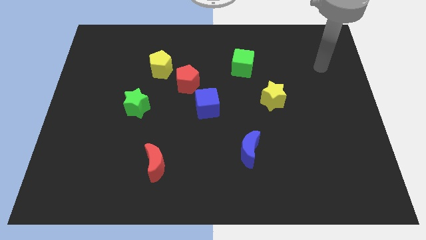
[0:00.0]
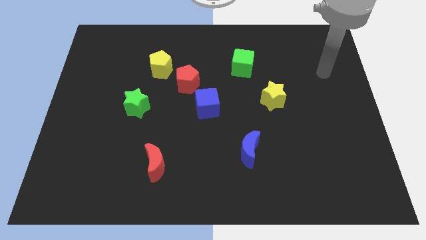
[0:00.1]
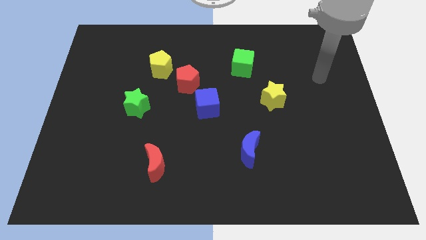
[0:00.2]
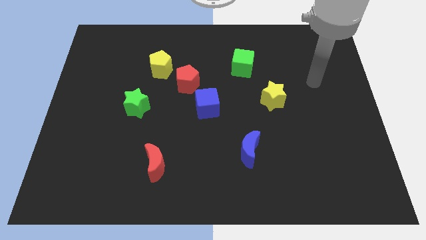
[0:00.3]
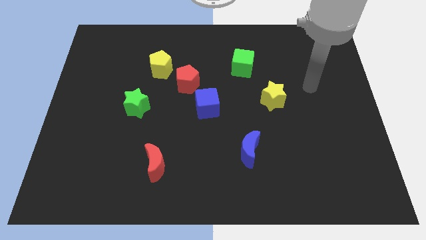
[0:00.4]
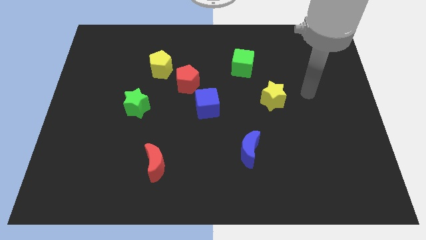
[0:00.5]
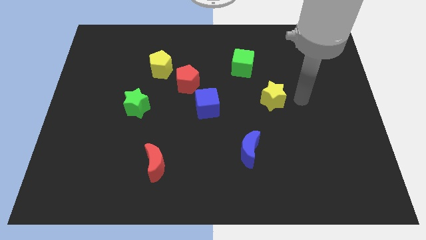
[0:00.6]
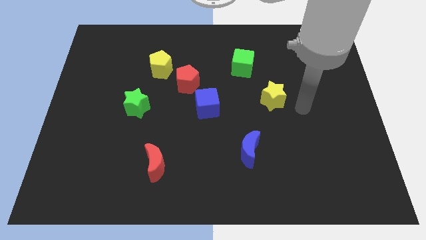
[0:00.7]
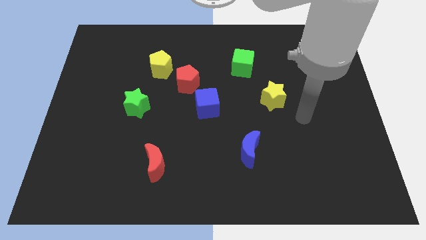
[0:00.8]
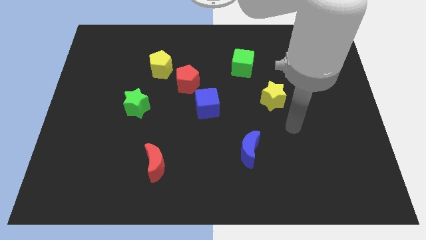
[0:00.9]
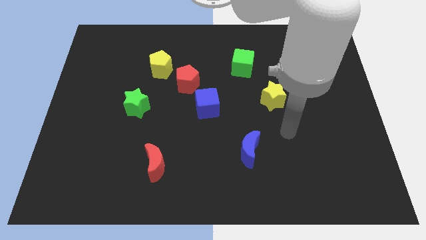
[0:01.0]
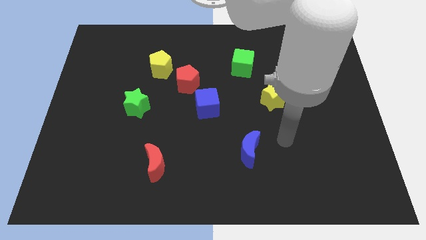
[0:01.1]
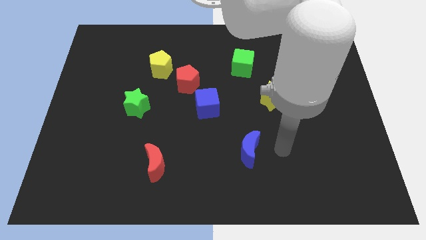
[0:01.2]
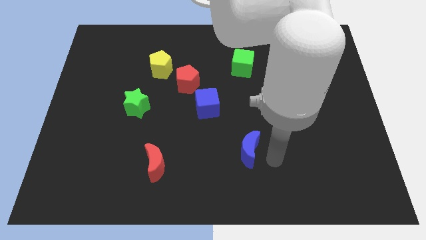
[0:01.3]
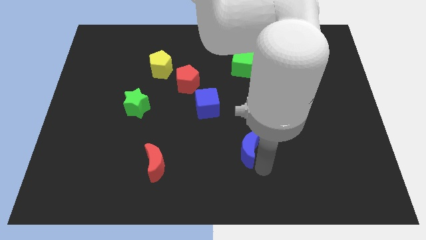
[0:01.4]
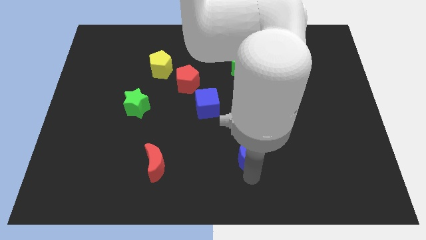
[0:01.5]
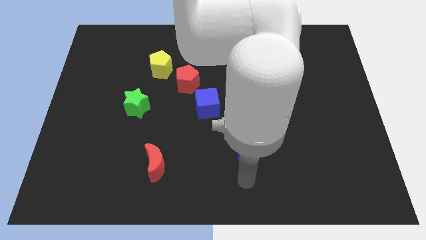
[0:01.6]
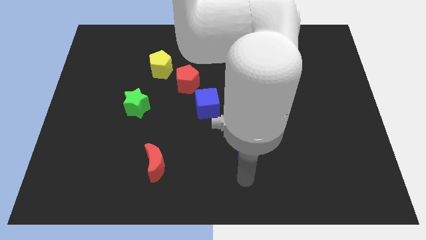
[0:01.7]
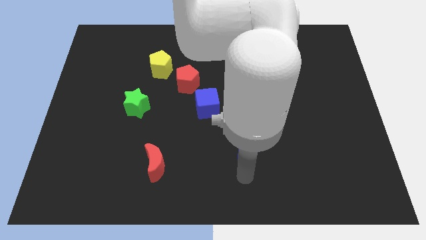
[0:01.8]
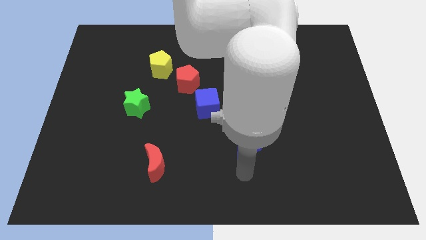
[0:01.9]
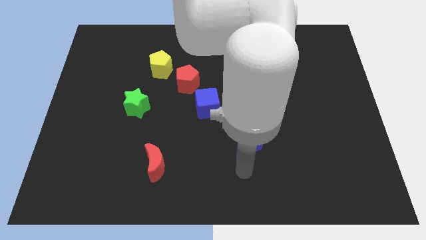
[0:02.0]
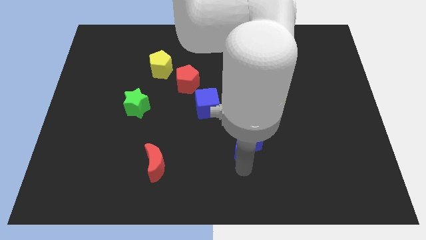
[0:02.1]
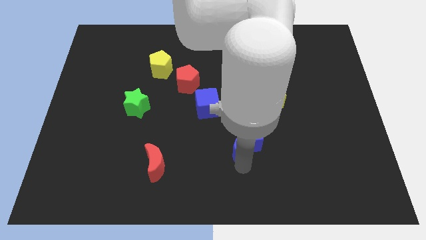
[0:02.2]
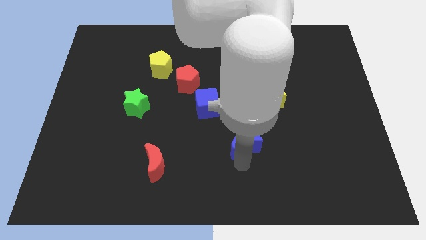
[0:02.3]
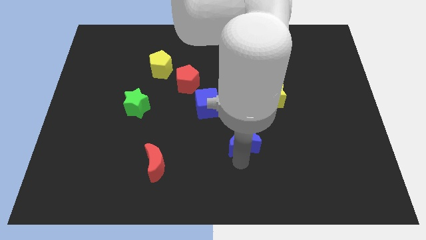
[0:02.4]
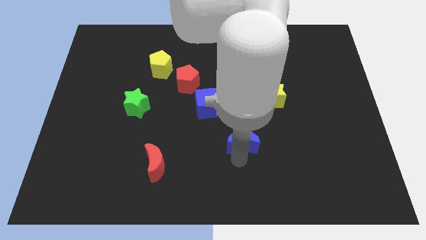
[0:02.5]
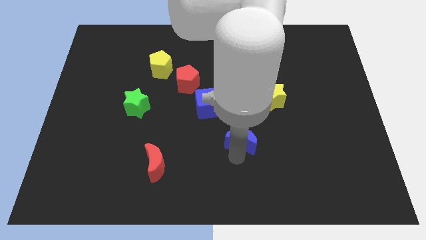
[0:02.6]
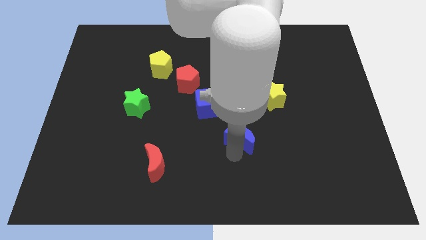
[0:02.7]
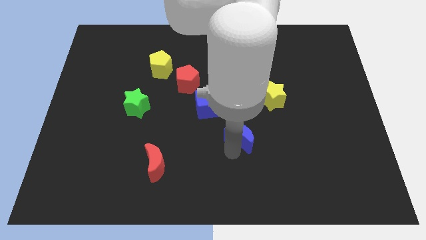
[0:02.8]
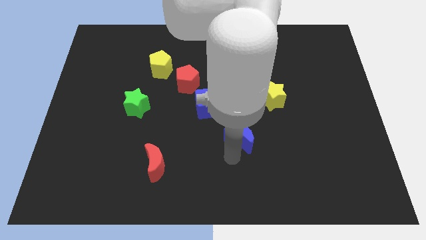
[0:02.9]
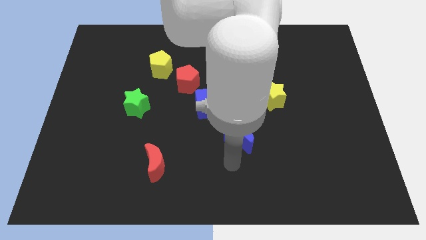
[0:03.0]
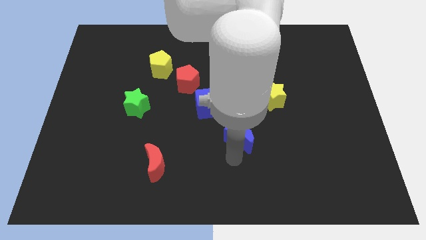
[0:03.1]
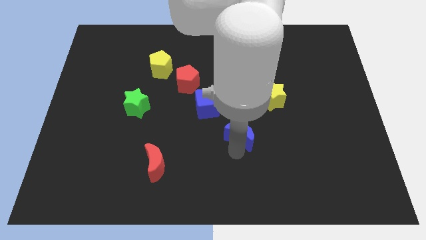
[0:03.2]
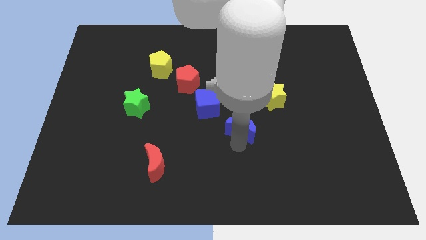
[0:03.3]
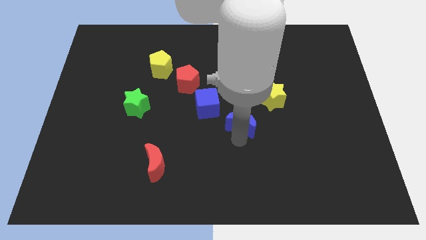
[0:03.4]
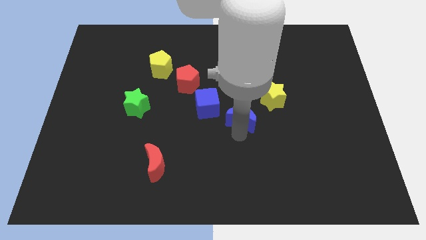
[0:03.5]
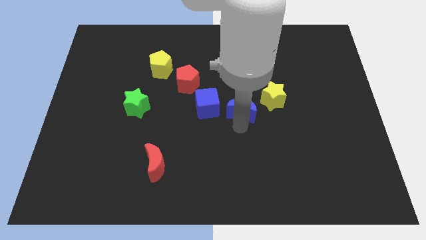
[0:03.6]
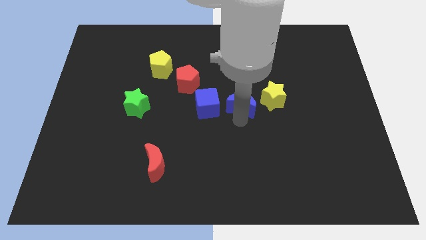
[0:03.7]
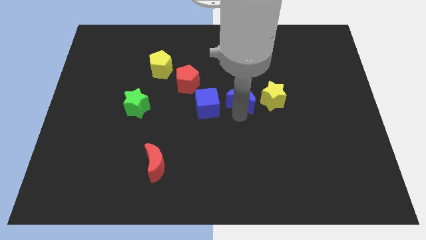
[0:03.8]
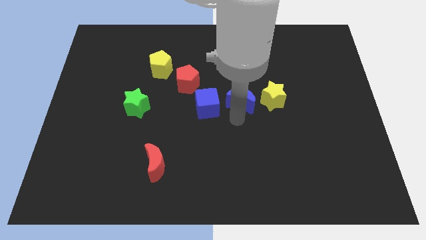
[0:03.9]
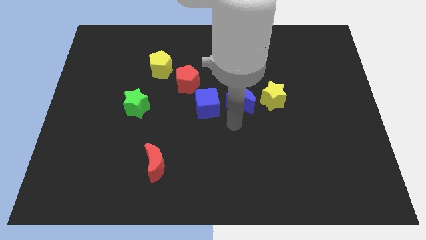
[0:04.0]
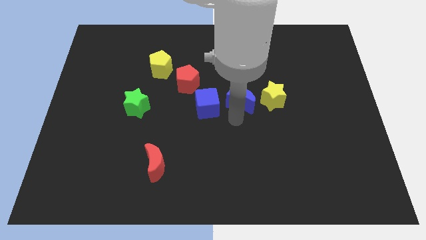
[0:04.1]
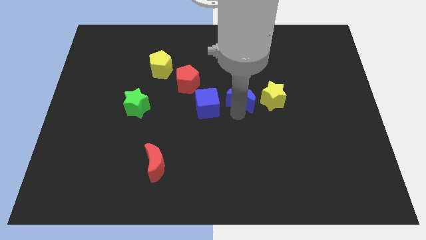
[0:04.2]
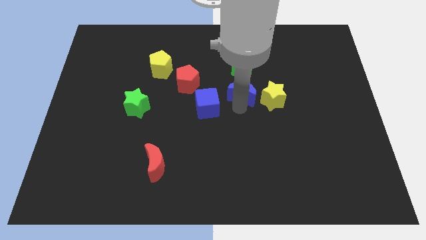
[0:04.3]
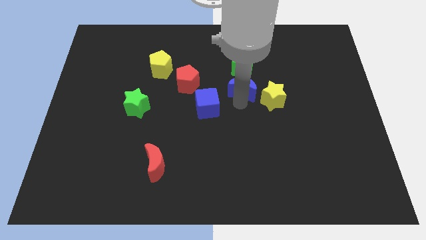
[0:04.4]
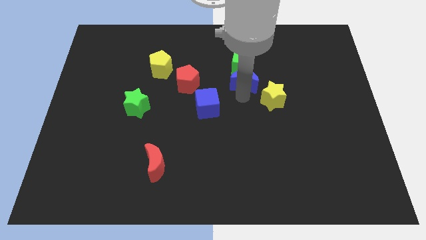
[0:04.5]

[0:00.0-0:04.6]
slide the blue moon next to the green cube

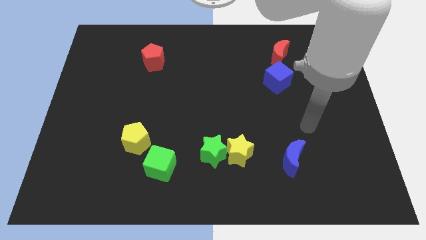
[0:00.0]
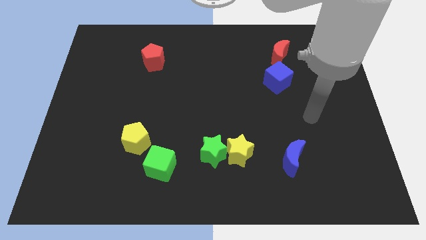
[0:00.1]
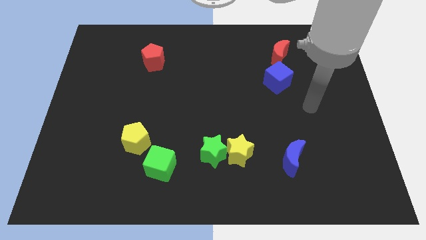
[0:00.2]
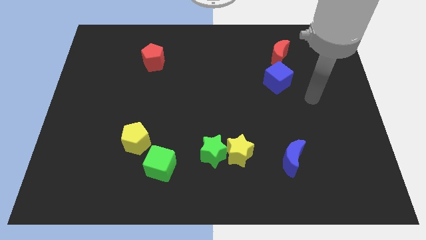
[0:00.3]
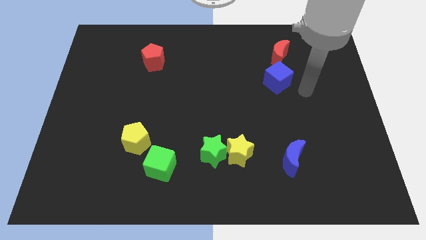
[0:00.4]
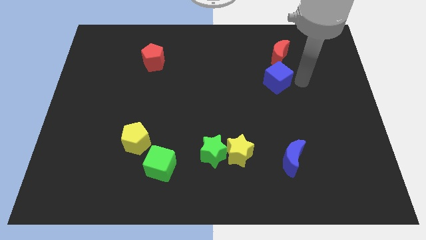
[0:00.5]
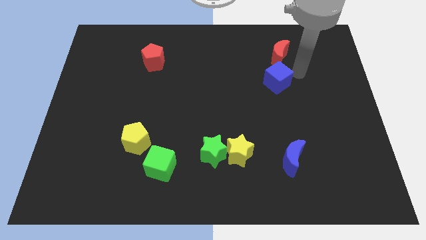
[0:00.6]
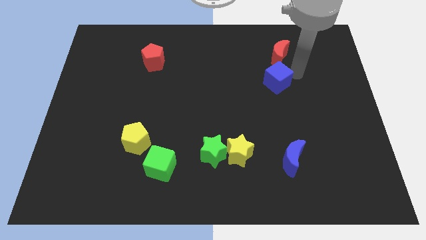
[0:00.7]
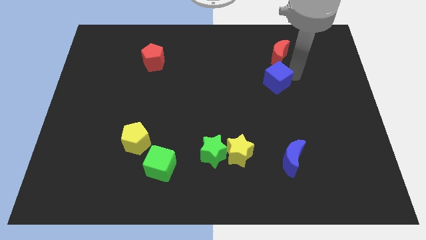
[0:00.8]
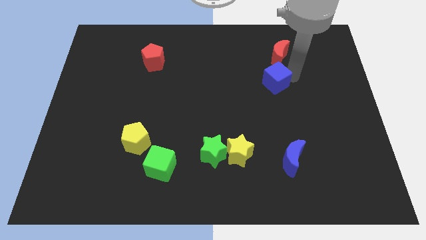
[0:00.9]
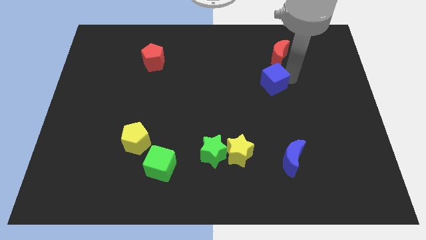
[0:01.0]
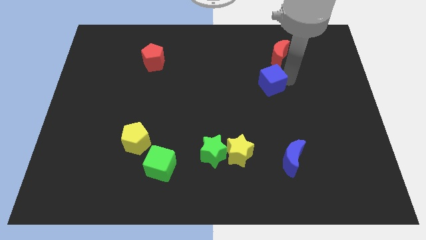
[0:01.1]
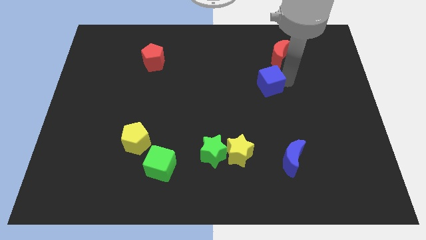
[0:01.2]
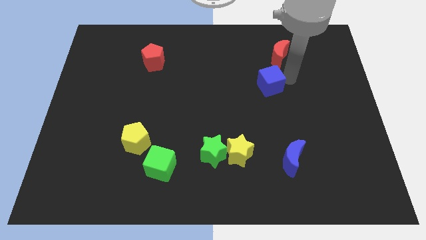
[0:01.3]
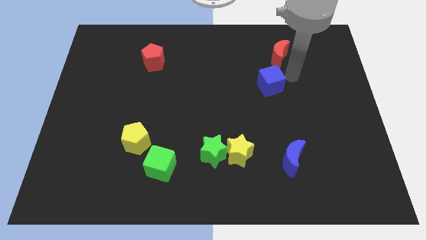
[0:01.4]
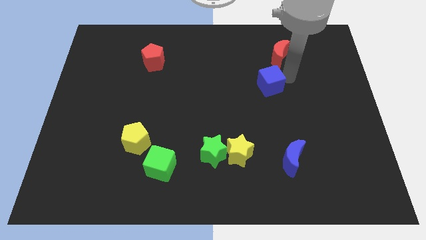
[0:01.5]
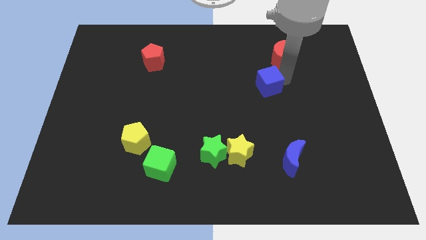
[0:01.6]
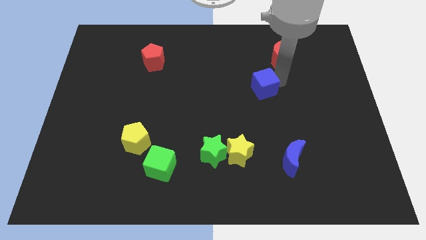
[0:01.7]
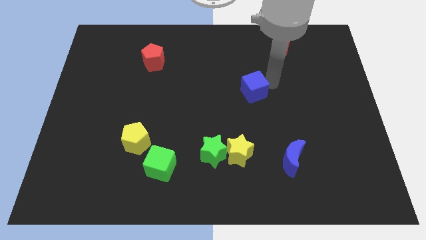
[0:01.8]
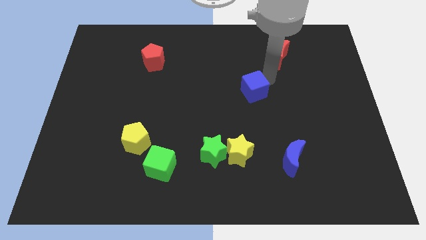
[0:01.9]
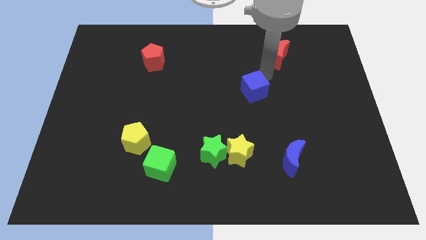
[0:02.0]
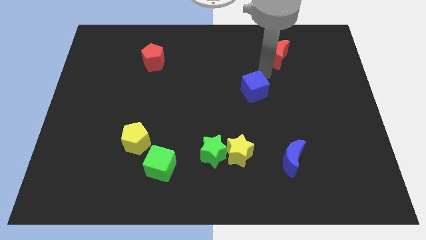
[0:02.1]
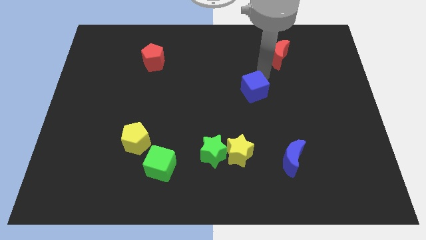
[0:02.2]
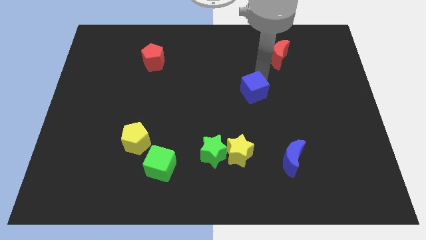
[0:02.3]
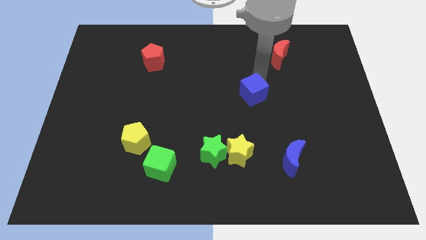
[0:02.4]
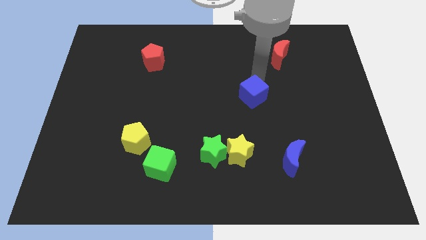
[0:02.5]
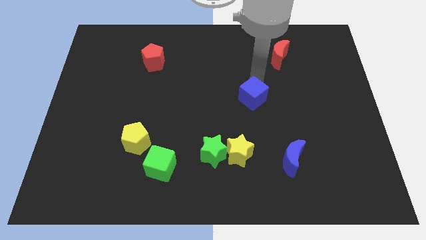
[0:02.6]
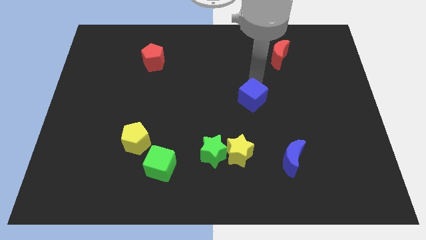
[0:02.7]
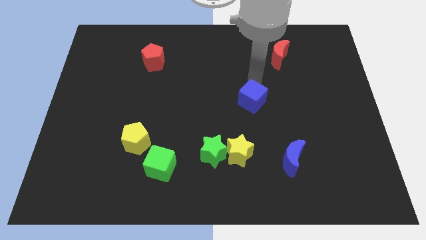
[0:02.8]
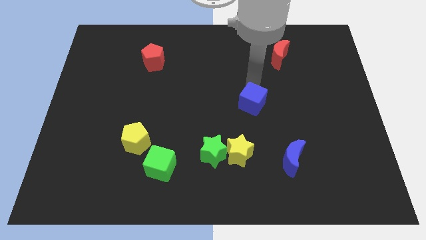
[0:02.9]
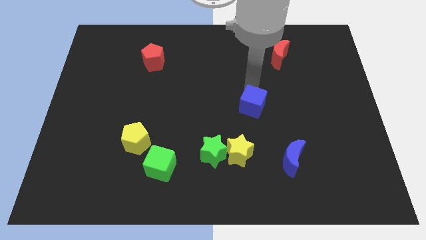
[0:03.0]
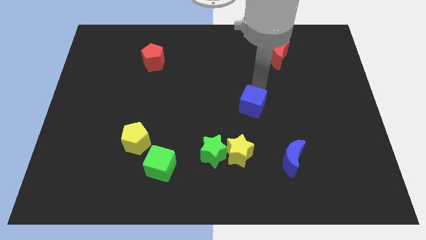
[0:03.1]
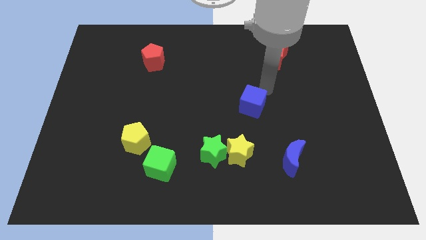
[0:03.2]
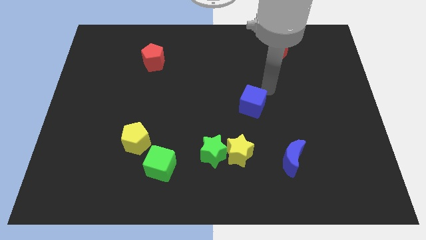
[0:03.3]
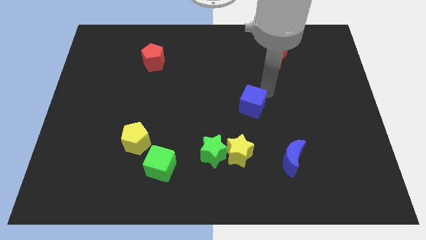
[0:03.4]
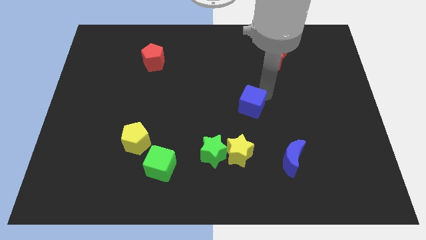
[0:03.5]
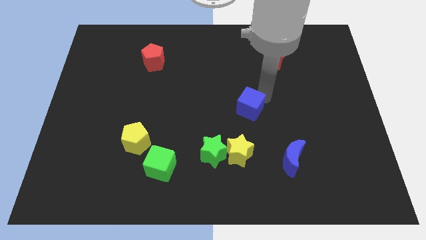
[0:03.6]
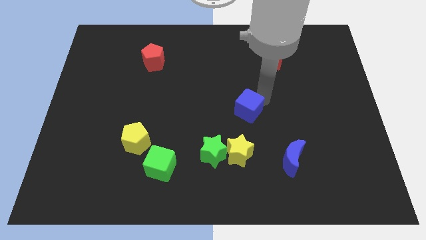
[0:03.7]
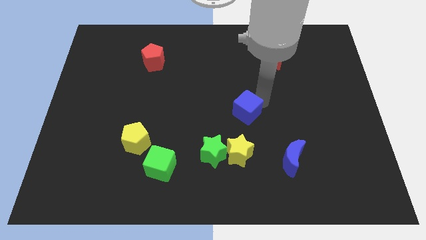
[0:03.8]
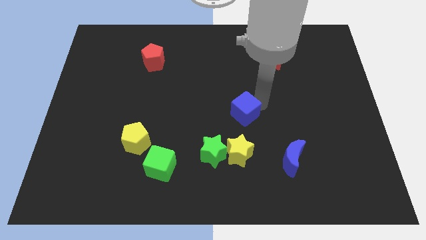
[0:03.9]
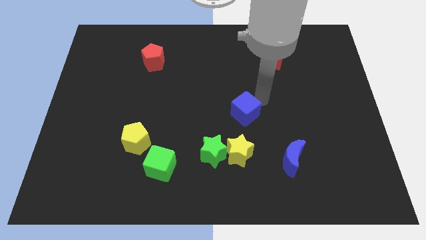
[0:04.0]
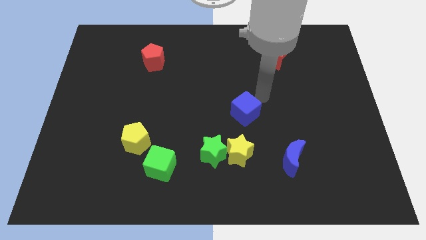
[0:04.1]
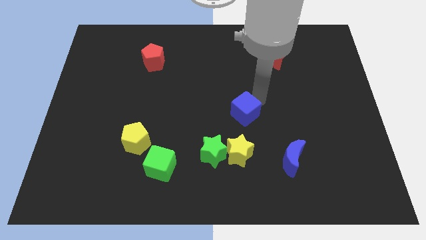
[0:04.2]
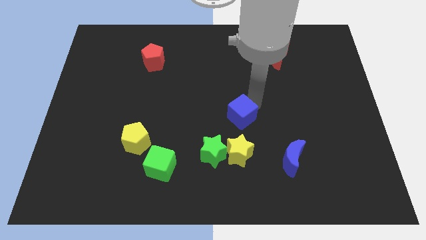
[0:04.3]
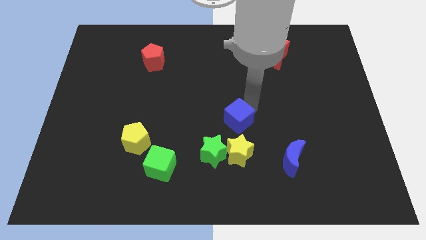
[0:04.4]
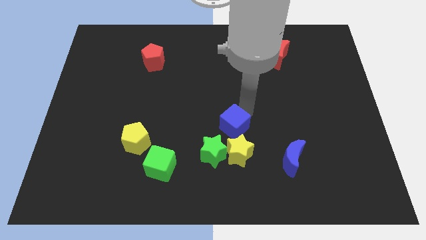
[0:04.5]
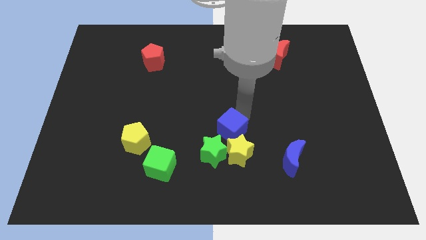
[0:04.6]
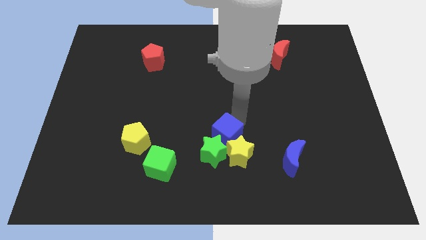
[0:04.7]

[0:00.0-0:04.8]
put the blue cube next to the green star
